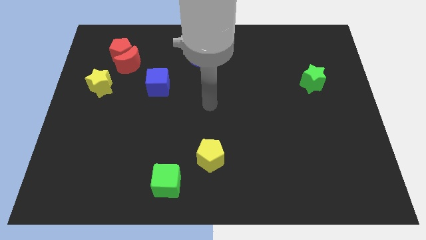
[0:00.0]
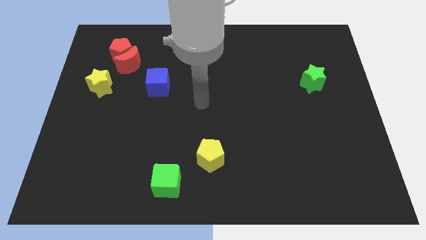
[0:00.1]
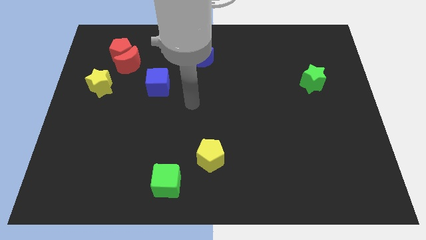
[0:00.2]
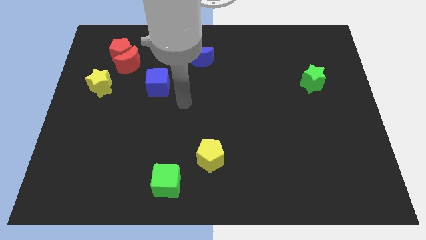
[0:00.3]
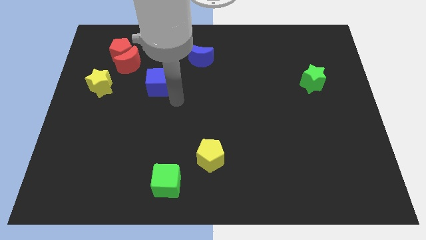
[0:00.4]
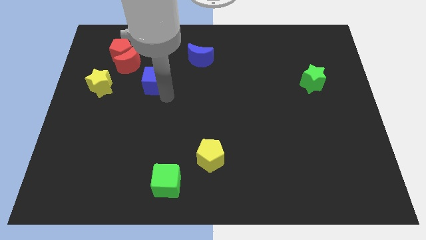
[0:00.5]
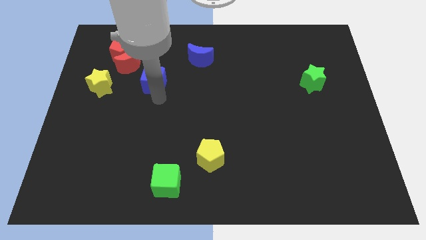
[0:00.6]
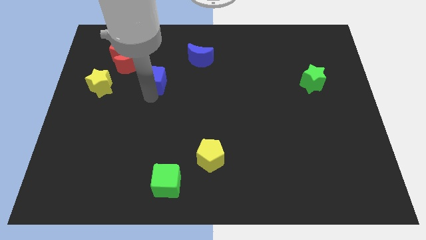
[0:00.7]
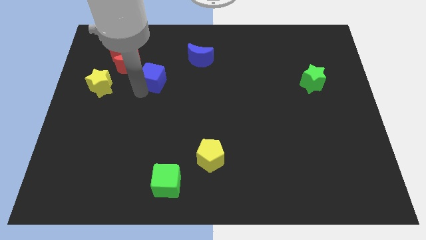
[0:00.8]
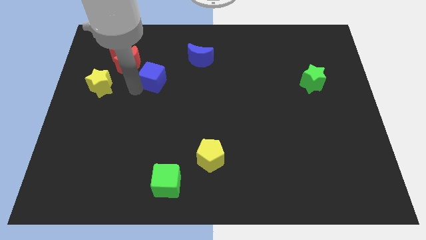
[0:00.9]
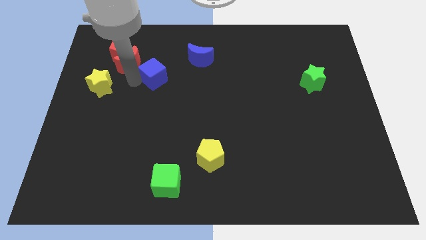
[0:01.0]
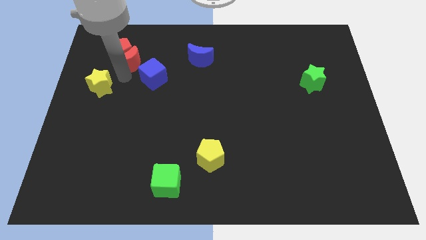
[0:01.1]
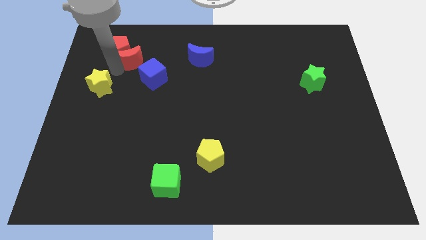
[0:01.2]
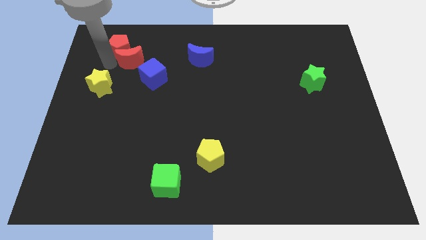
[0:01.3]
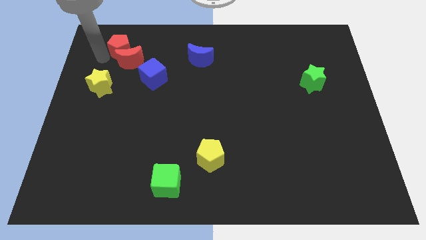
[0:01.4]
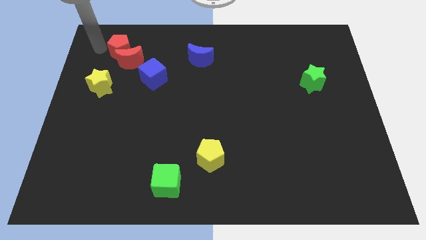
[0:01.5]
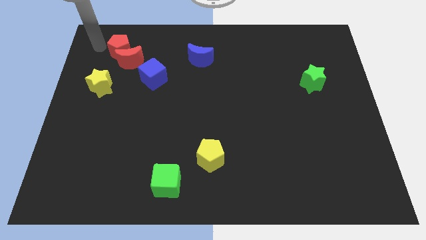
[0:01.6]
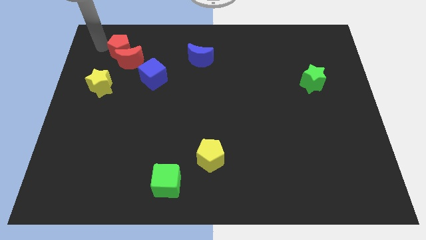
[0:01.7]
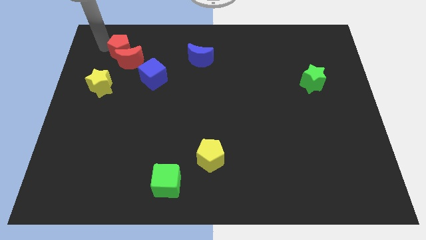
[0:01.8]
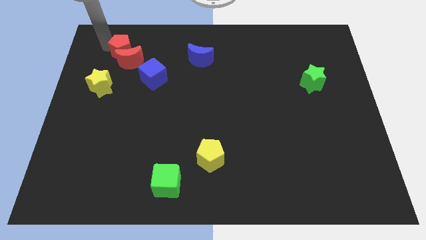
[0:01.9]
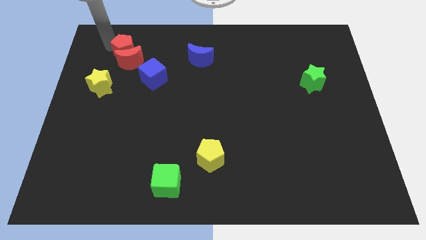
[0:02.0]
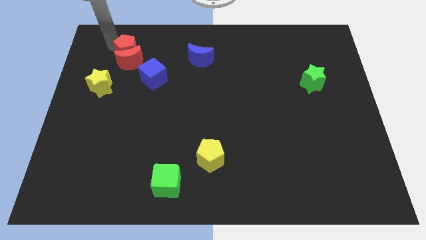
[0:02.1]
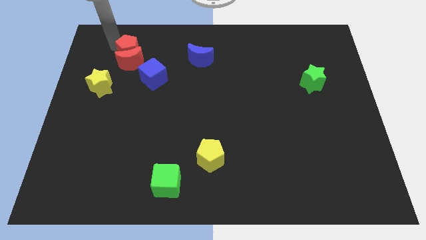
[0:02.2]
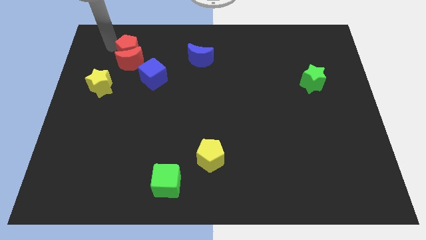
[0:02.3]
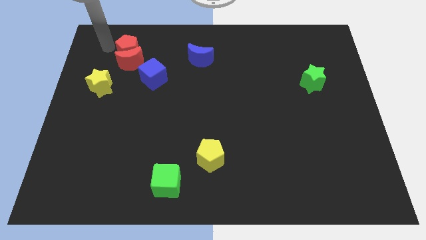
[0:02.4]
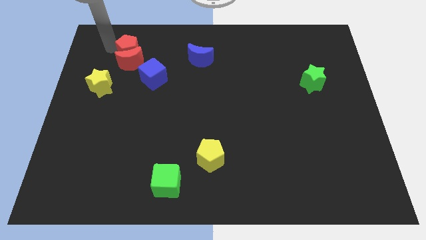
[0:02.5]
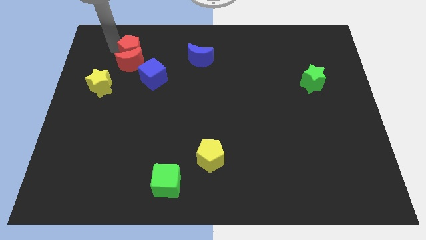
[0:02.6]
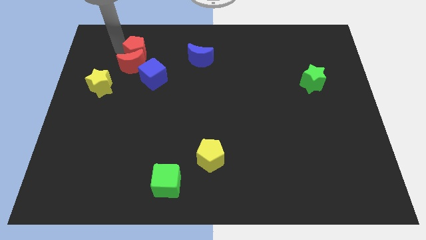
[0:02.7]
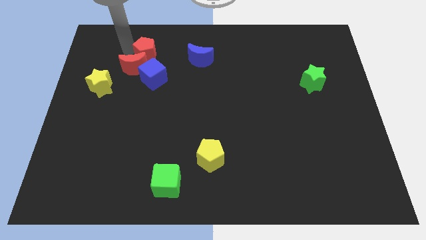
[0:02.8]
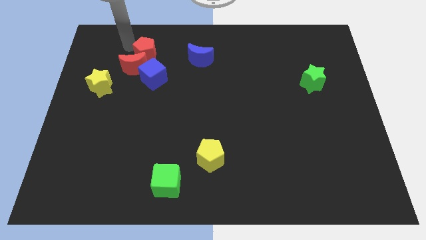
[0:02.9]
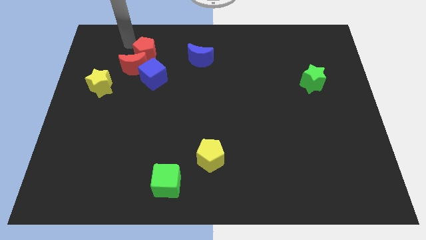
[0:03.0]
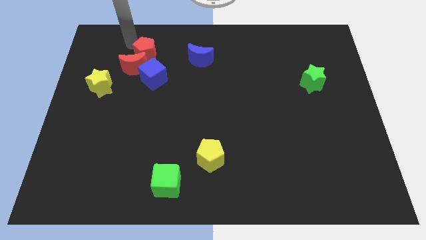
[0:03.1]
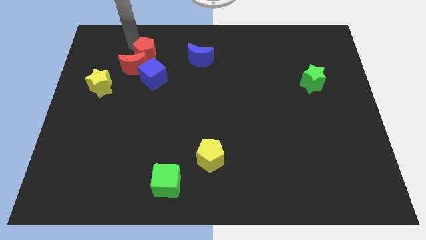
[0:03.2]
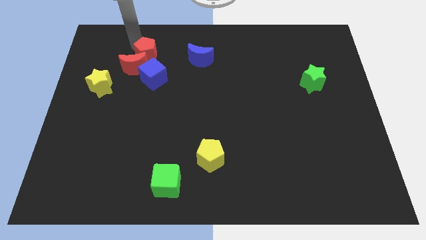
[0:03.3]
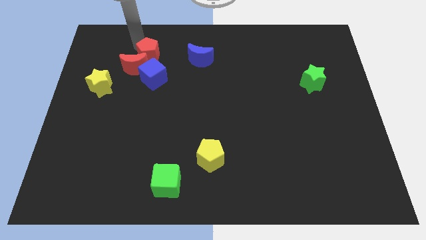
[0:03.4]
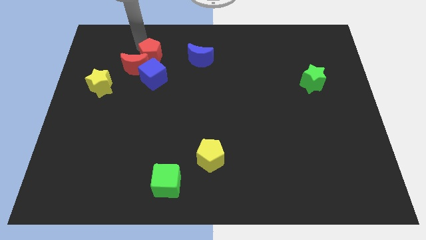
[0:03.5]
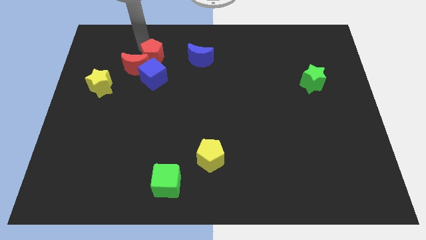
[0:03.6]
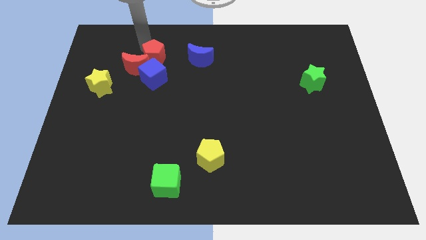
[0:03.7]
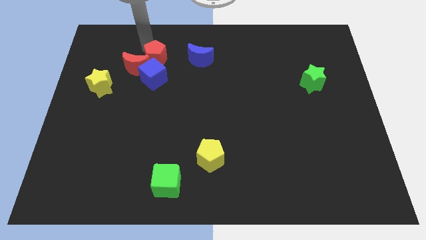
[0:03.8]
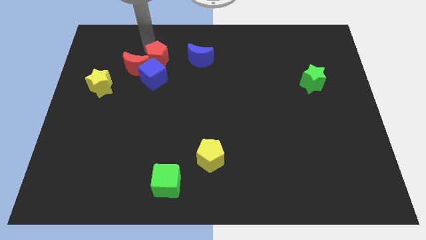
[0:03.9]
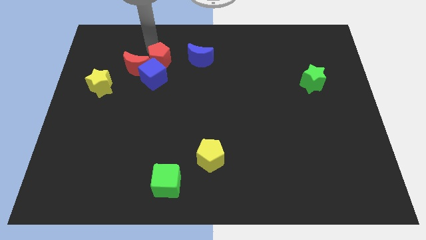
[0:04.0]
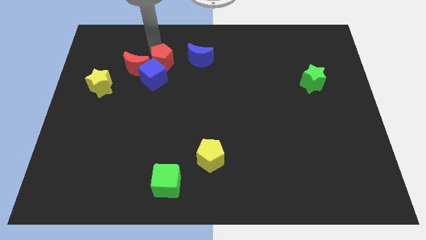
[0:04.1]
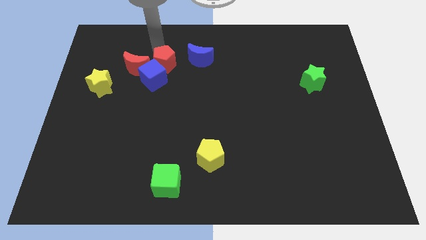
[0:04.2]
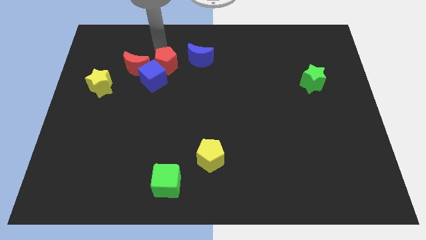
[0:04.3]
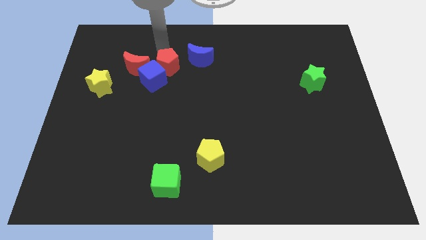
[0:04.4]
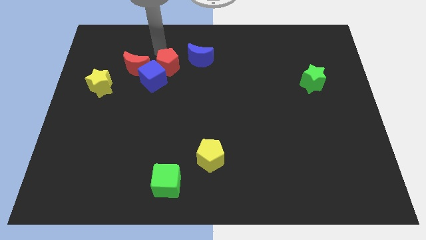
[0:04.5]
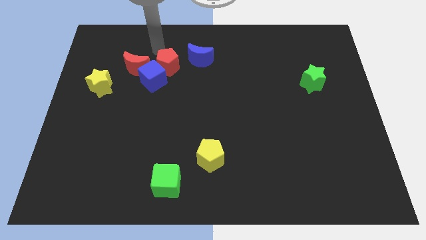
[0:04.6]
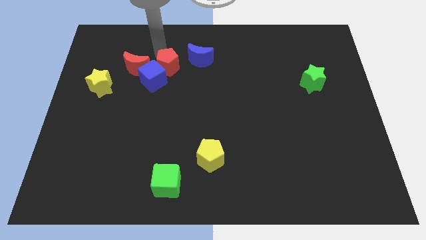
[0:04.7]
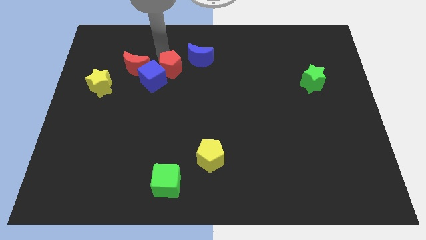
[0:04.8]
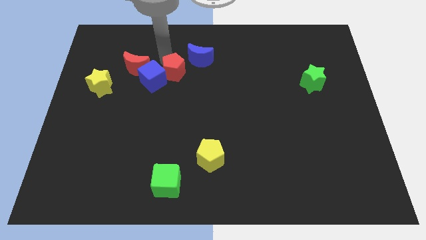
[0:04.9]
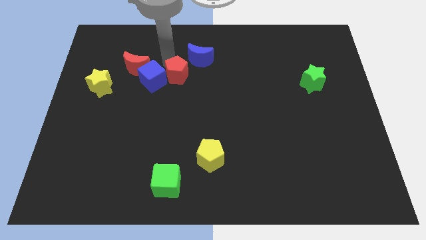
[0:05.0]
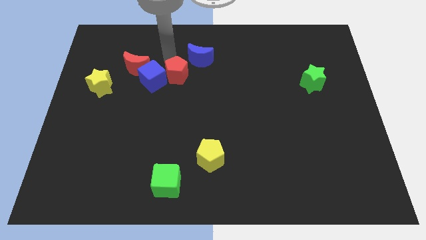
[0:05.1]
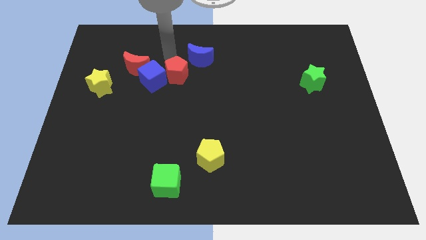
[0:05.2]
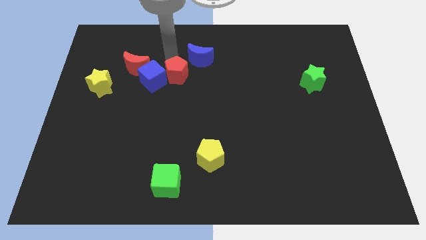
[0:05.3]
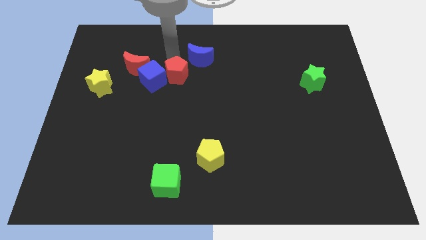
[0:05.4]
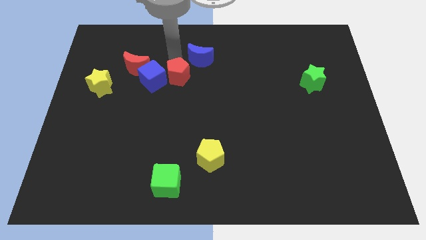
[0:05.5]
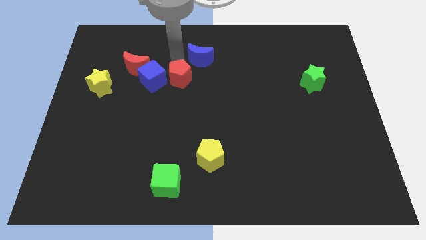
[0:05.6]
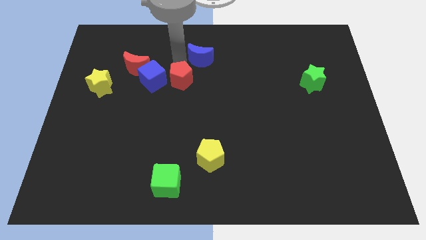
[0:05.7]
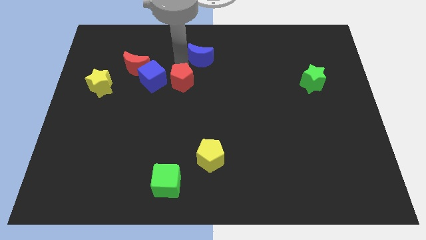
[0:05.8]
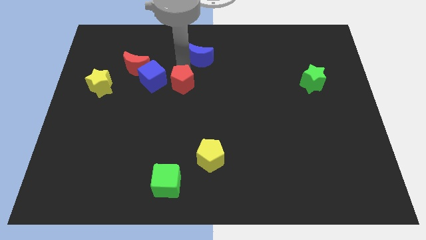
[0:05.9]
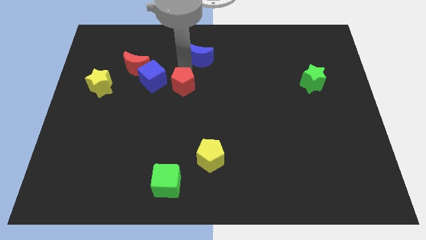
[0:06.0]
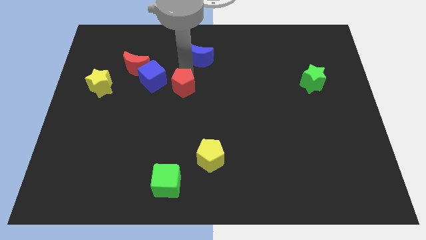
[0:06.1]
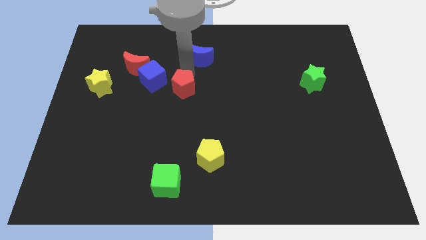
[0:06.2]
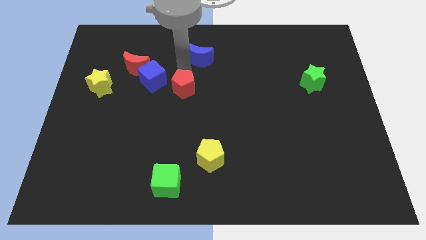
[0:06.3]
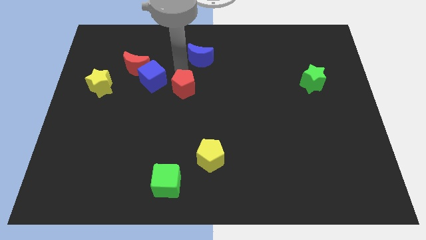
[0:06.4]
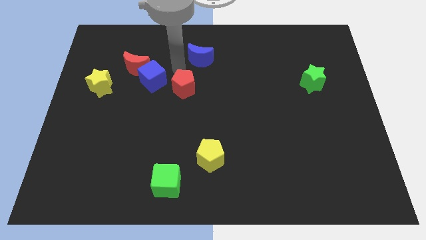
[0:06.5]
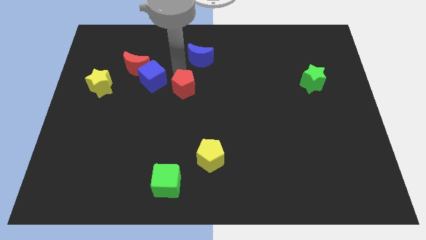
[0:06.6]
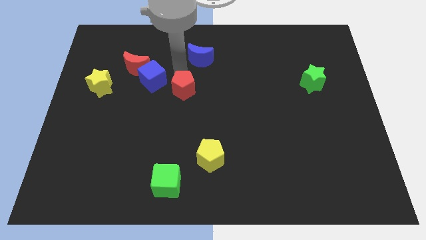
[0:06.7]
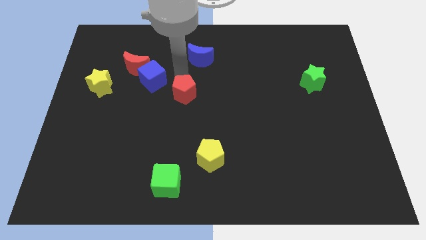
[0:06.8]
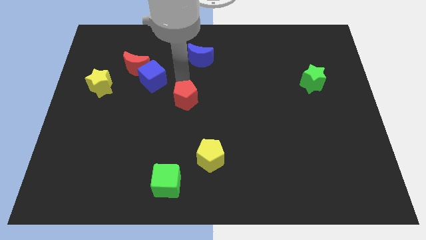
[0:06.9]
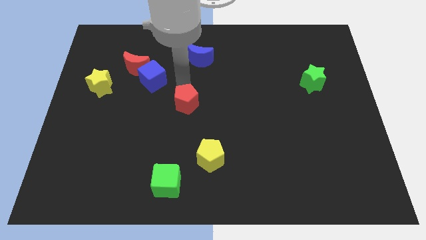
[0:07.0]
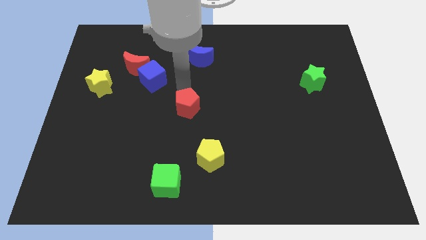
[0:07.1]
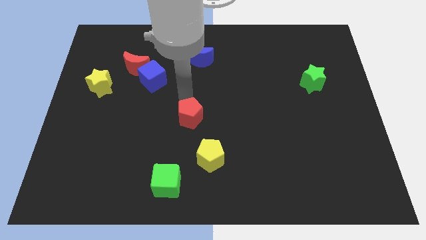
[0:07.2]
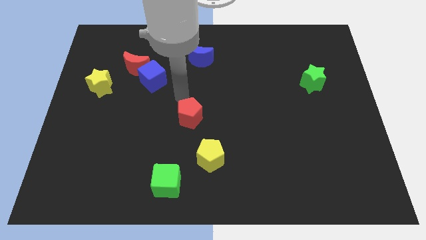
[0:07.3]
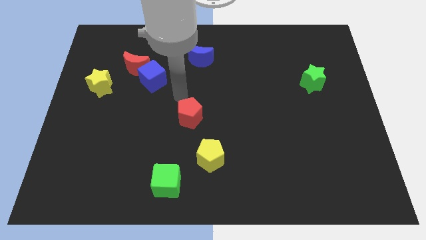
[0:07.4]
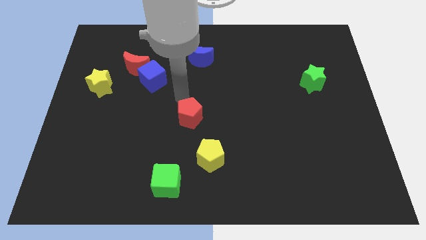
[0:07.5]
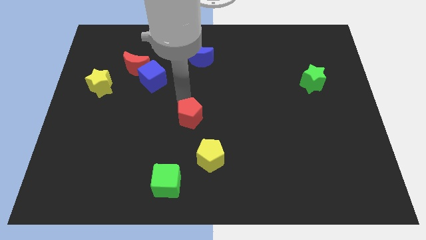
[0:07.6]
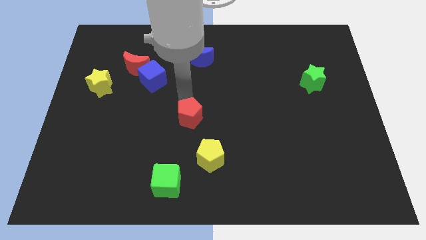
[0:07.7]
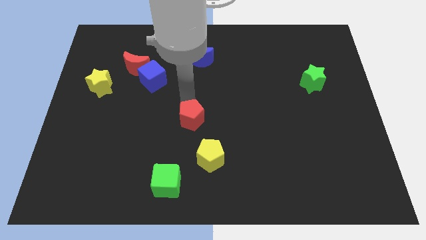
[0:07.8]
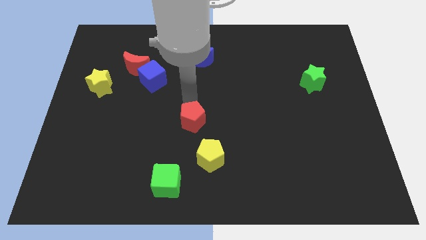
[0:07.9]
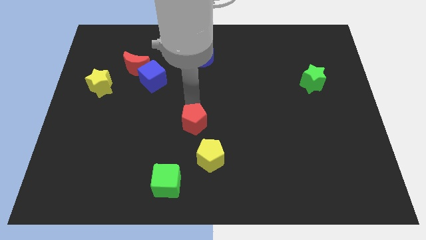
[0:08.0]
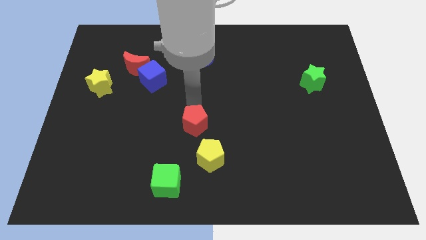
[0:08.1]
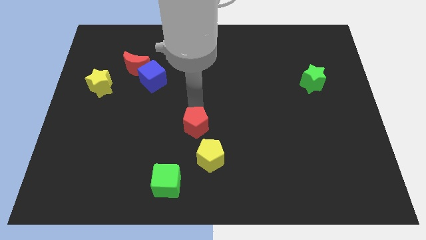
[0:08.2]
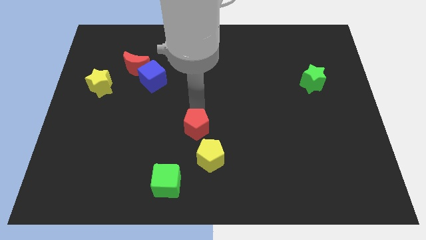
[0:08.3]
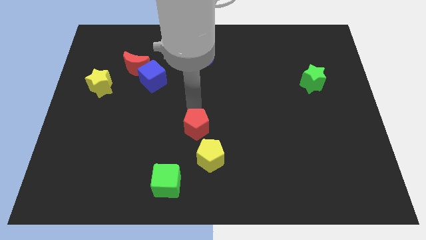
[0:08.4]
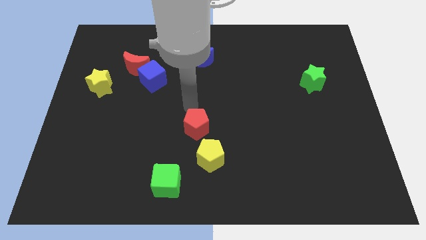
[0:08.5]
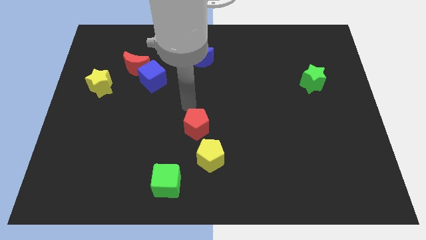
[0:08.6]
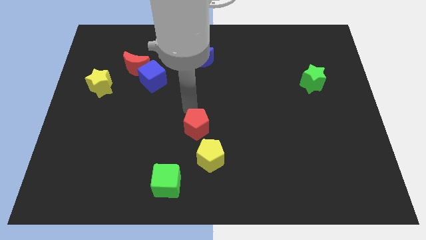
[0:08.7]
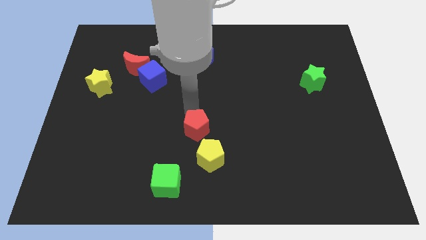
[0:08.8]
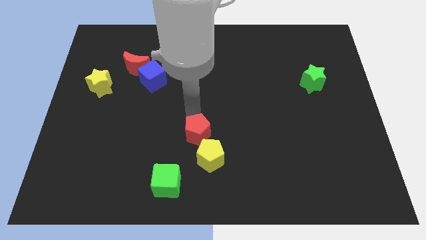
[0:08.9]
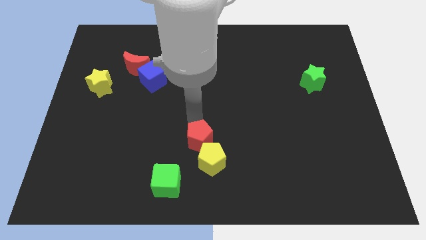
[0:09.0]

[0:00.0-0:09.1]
push the red pentagon next to the yellow pentagon
